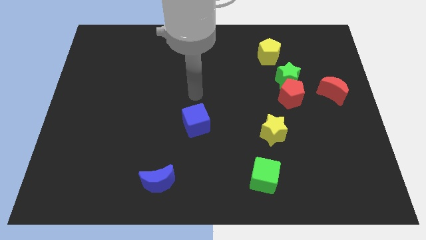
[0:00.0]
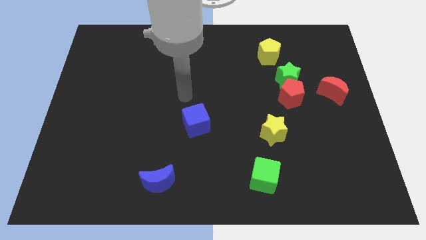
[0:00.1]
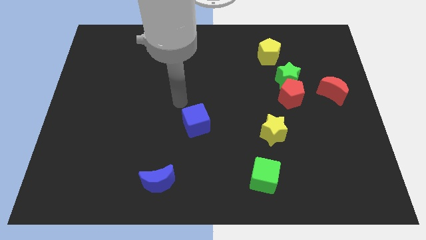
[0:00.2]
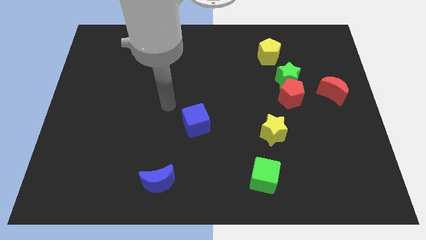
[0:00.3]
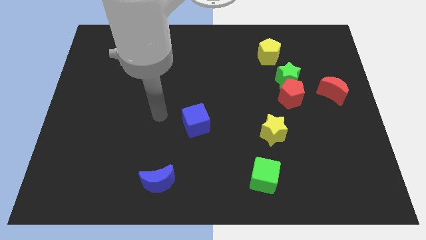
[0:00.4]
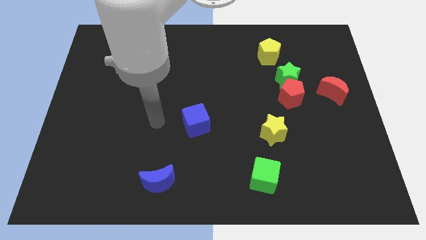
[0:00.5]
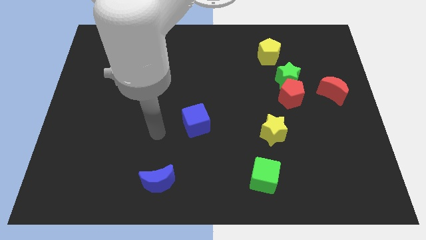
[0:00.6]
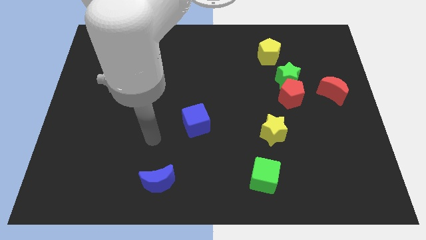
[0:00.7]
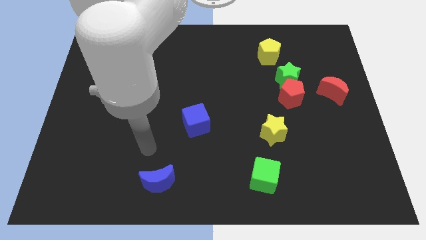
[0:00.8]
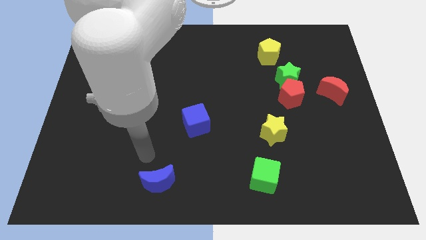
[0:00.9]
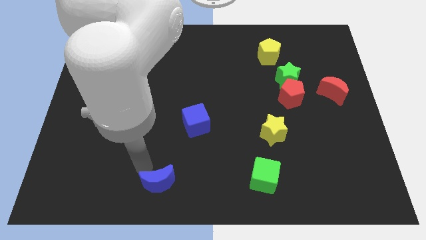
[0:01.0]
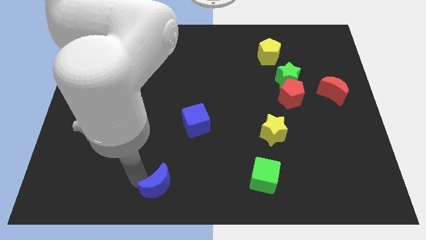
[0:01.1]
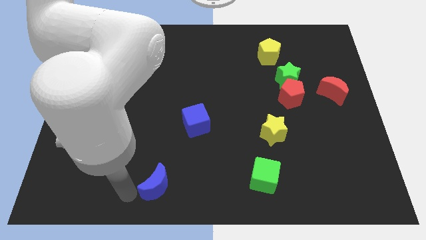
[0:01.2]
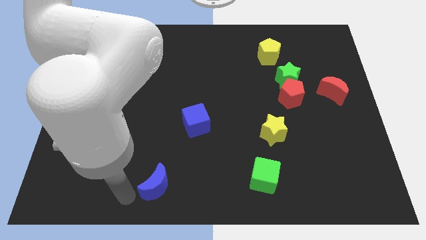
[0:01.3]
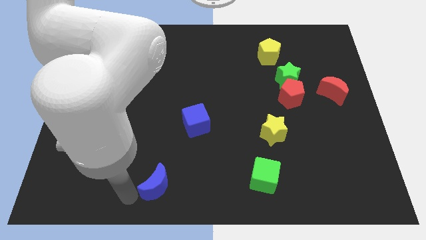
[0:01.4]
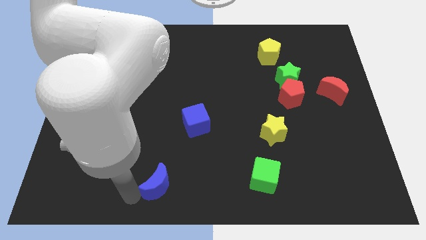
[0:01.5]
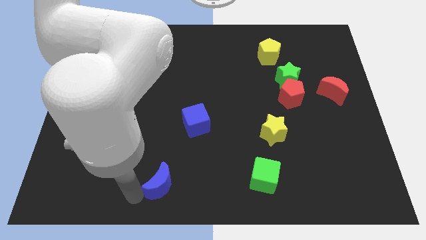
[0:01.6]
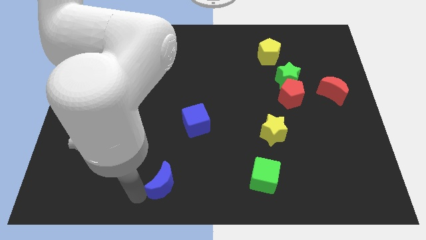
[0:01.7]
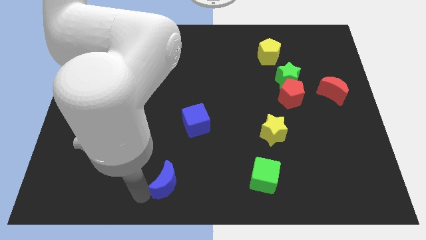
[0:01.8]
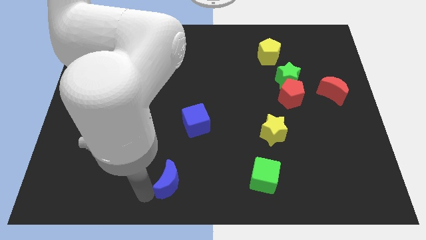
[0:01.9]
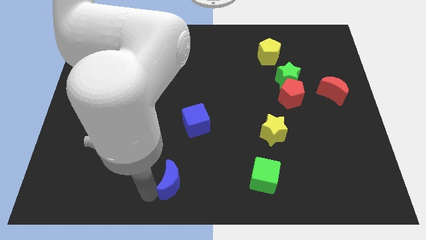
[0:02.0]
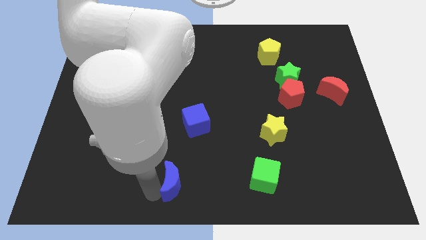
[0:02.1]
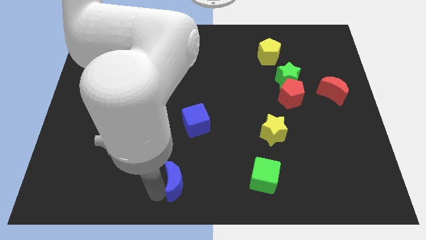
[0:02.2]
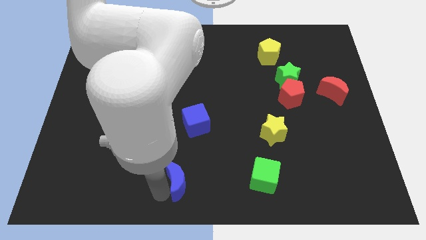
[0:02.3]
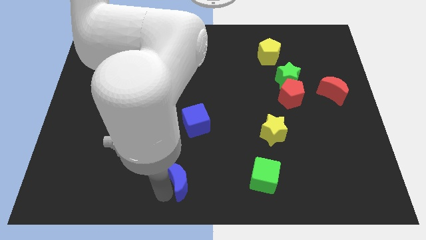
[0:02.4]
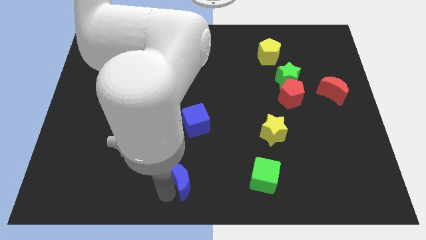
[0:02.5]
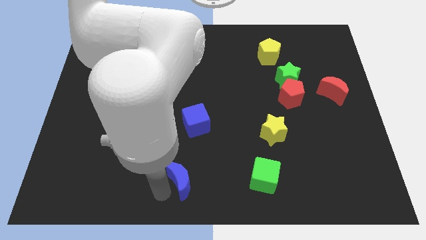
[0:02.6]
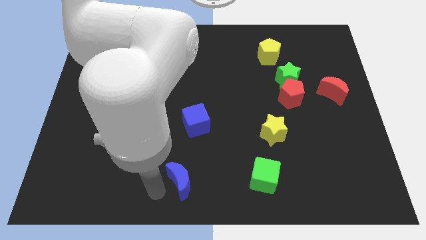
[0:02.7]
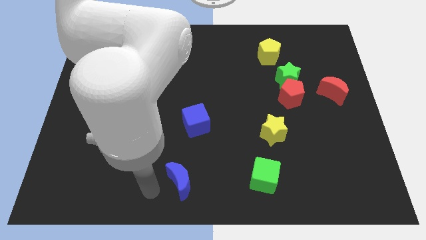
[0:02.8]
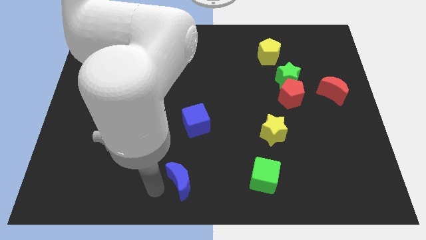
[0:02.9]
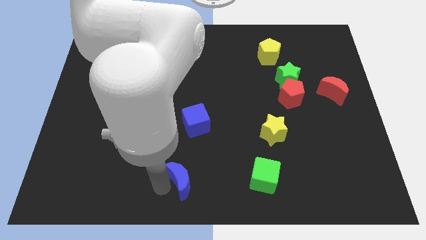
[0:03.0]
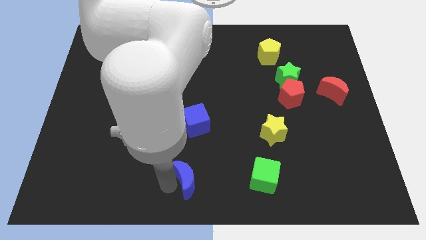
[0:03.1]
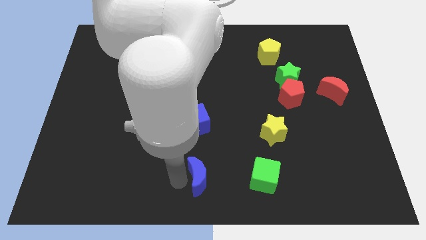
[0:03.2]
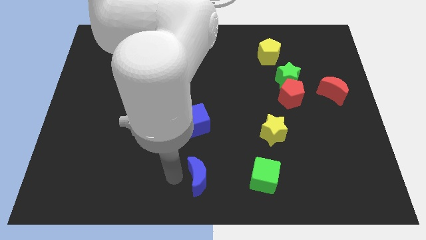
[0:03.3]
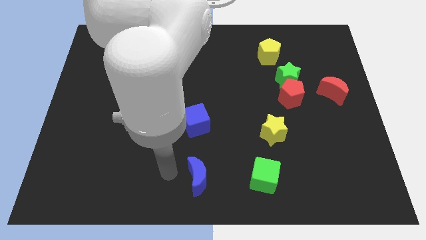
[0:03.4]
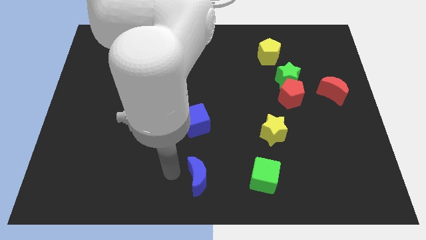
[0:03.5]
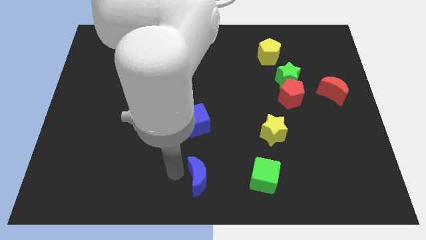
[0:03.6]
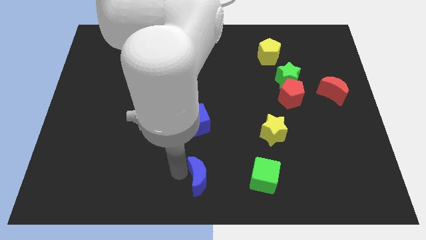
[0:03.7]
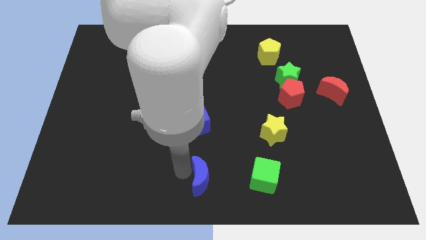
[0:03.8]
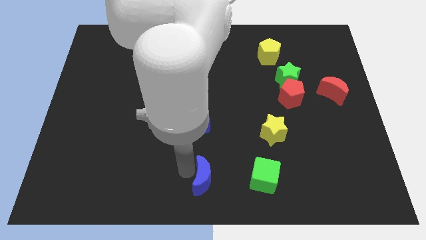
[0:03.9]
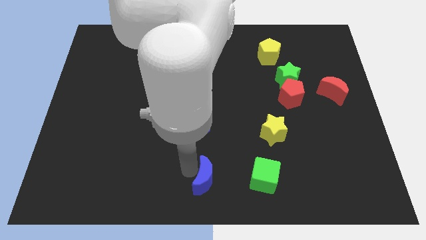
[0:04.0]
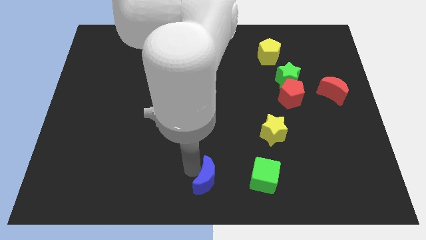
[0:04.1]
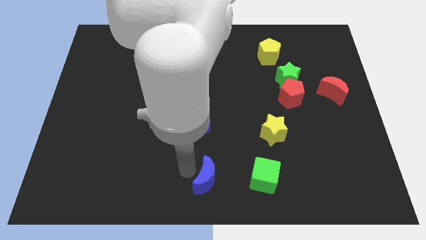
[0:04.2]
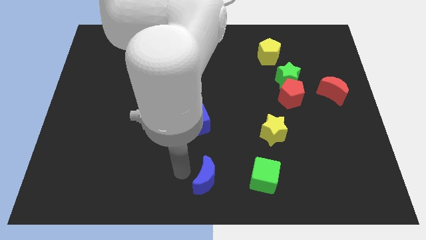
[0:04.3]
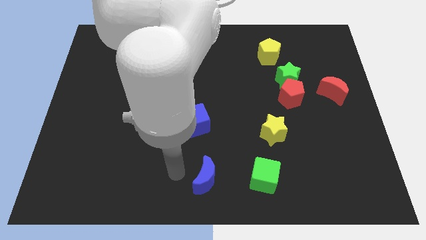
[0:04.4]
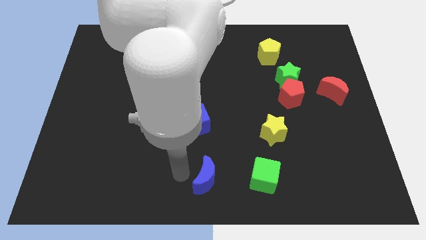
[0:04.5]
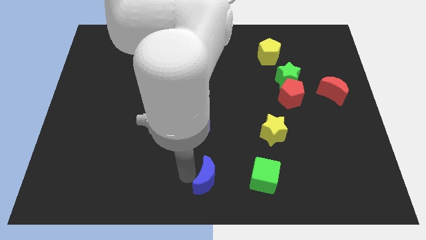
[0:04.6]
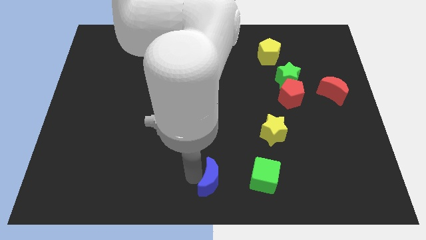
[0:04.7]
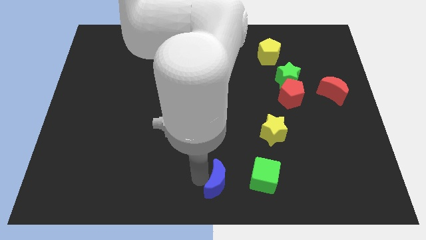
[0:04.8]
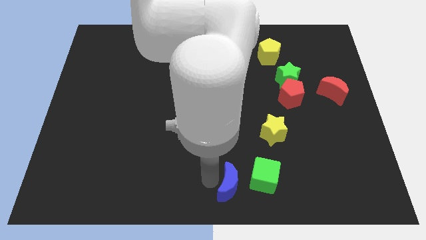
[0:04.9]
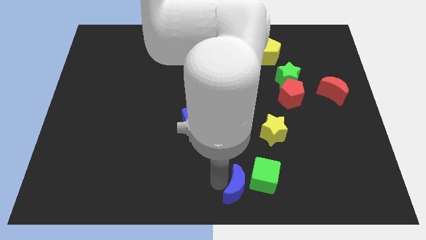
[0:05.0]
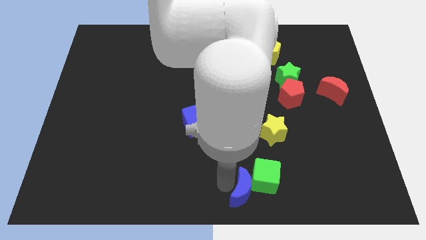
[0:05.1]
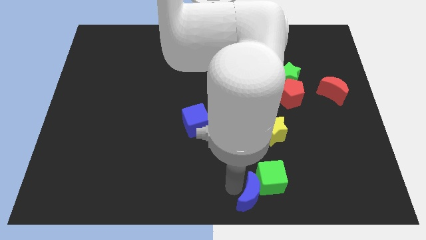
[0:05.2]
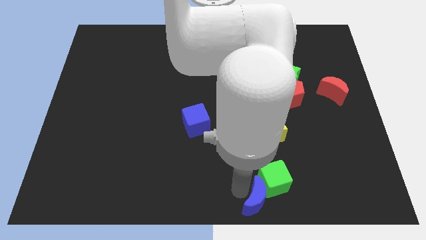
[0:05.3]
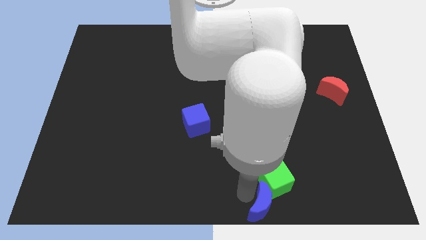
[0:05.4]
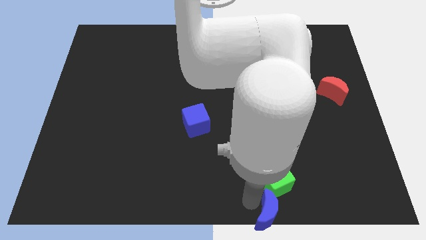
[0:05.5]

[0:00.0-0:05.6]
move the blue moon to the right

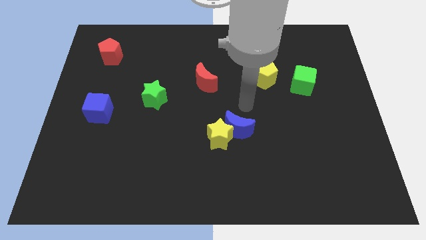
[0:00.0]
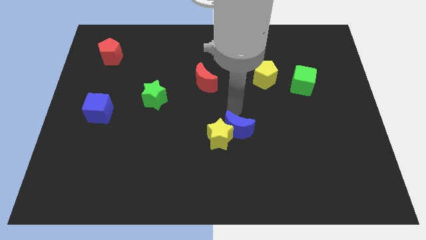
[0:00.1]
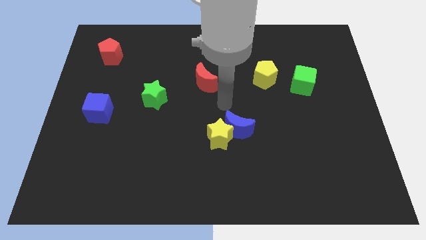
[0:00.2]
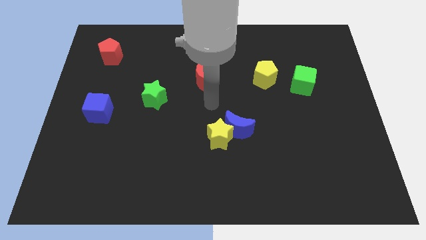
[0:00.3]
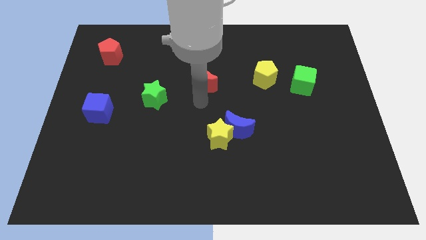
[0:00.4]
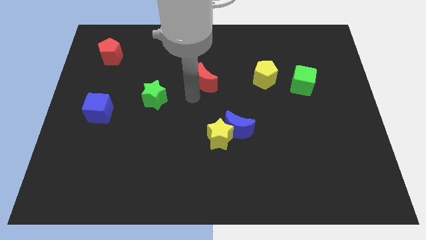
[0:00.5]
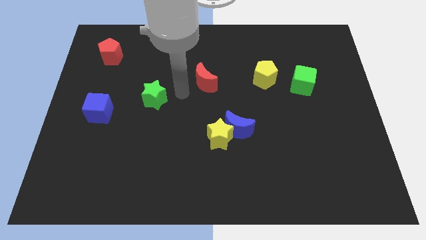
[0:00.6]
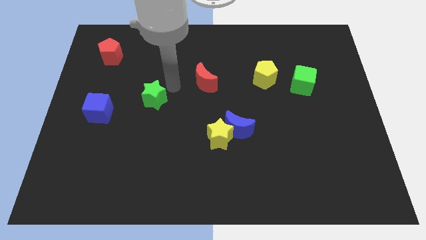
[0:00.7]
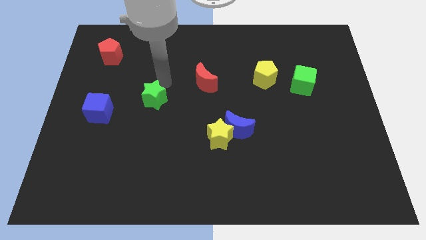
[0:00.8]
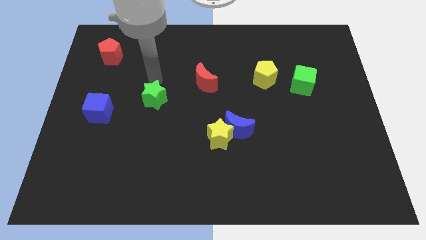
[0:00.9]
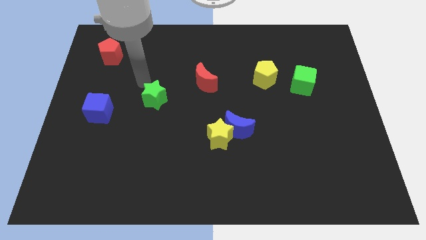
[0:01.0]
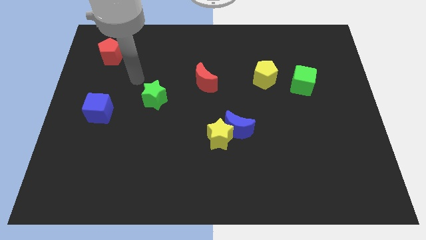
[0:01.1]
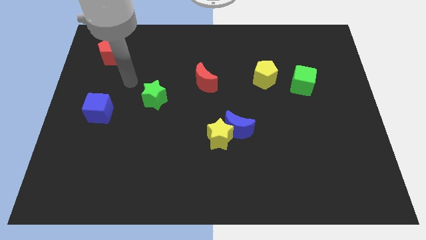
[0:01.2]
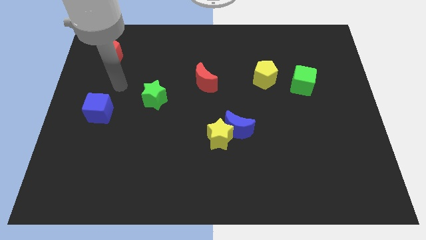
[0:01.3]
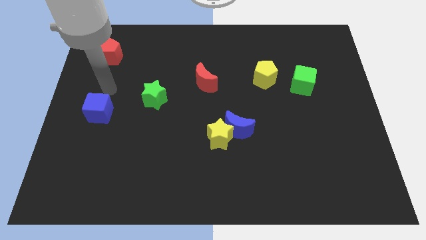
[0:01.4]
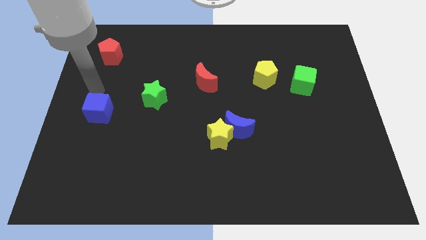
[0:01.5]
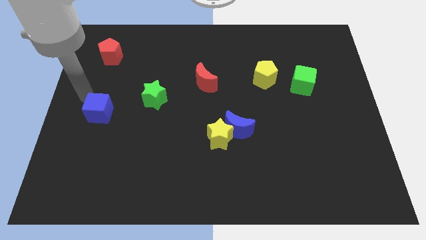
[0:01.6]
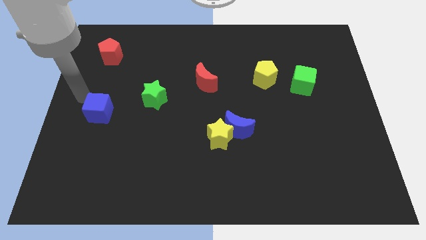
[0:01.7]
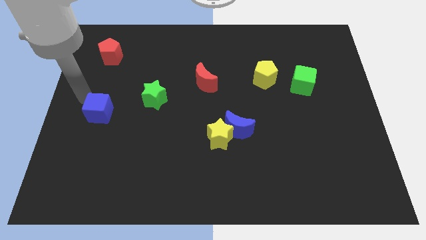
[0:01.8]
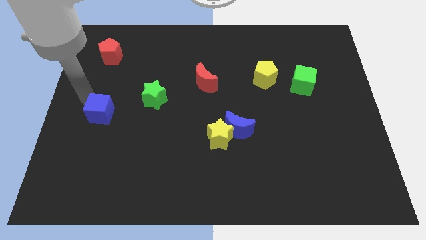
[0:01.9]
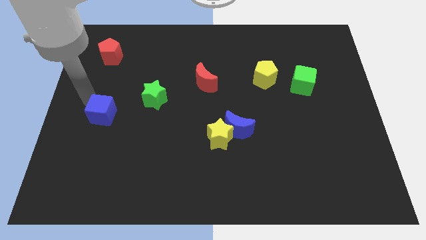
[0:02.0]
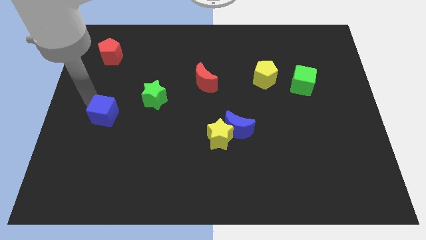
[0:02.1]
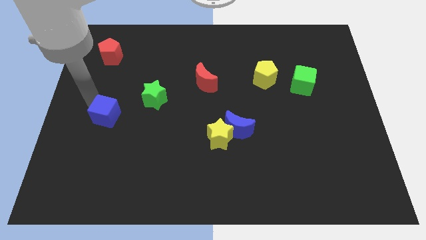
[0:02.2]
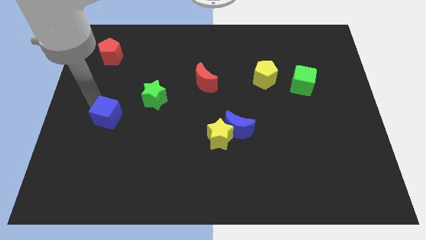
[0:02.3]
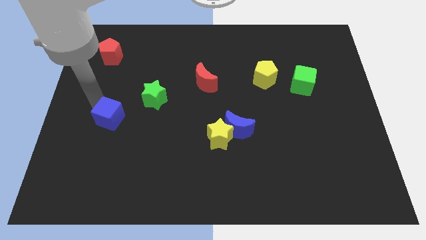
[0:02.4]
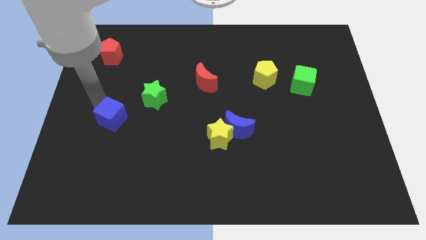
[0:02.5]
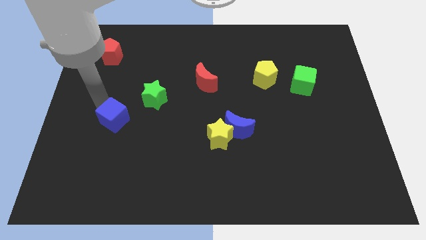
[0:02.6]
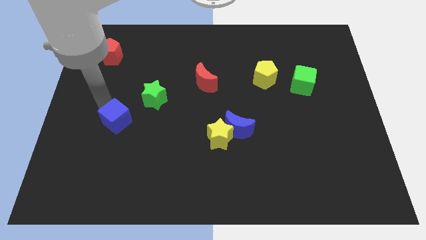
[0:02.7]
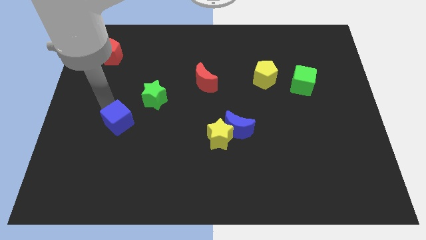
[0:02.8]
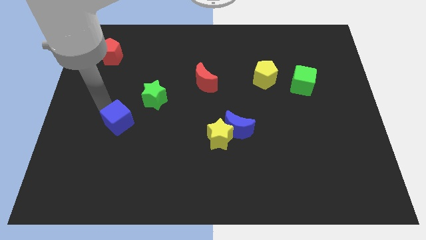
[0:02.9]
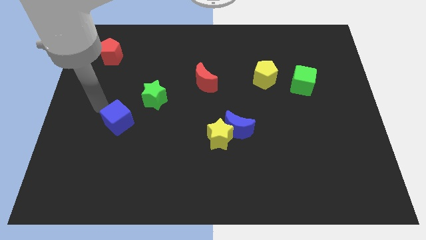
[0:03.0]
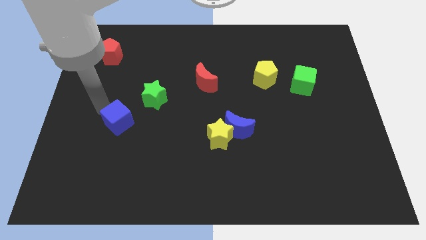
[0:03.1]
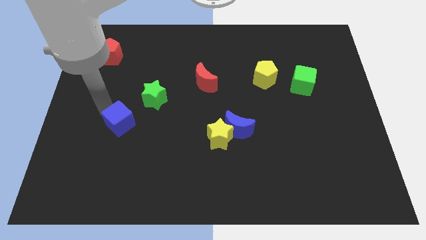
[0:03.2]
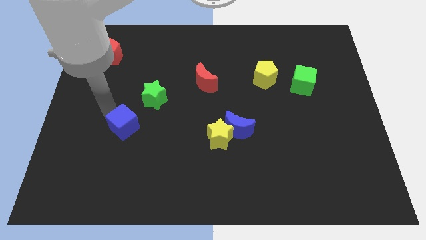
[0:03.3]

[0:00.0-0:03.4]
push the blue cube a bit down and to the right
